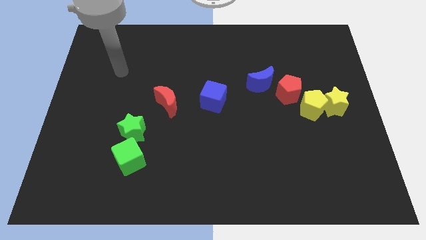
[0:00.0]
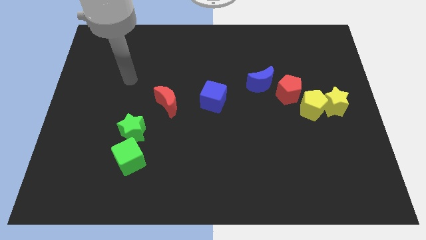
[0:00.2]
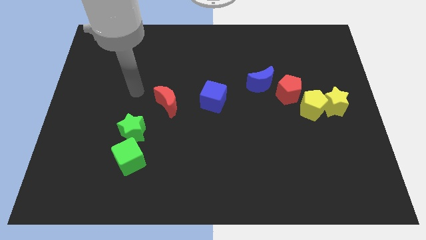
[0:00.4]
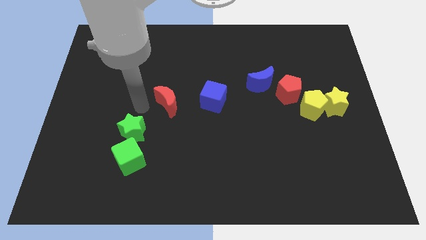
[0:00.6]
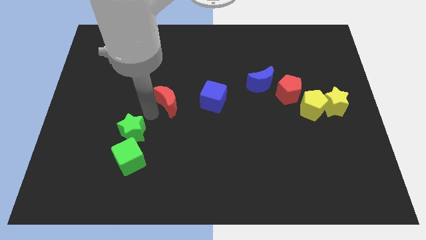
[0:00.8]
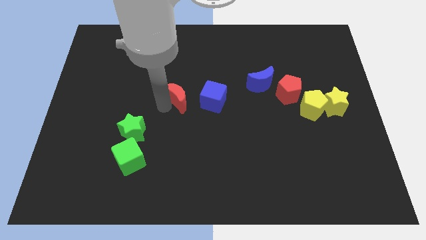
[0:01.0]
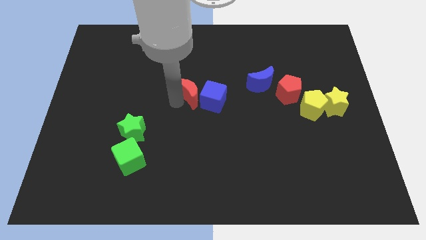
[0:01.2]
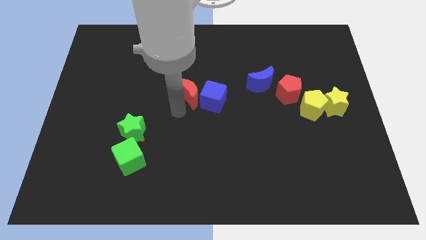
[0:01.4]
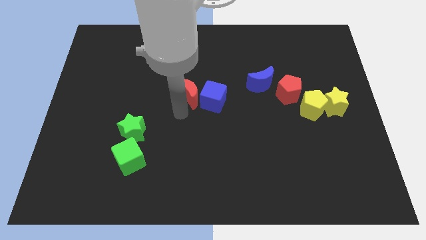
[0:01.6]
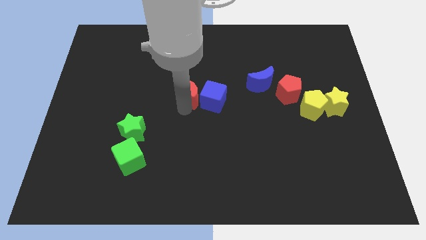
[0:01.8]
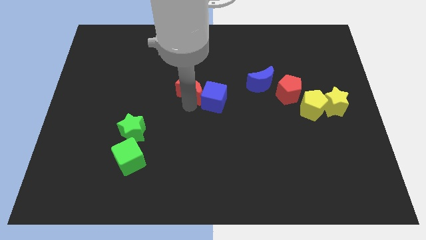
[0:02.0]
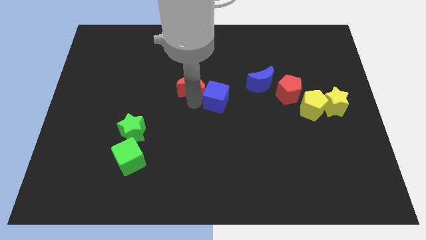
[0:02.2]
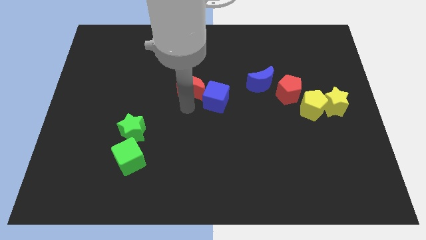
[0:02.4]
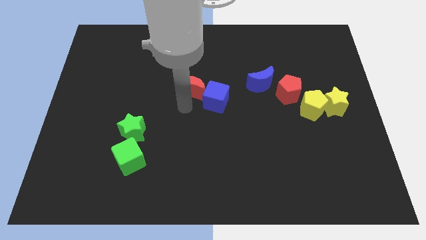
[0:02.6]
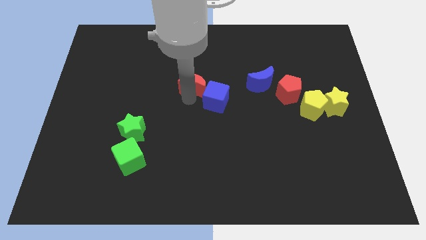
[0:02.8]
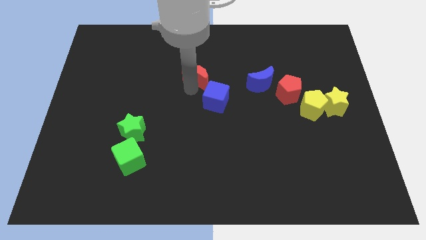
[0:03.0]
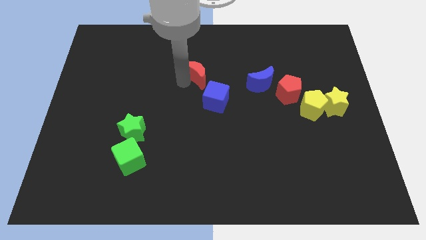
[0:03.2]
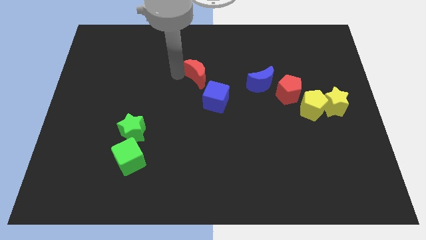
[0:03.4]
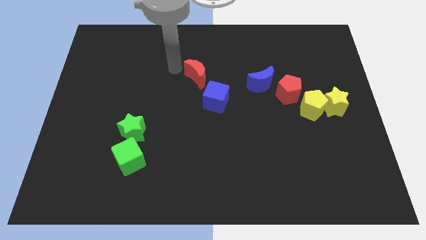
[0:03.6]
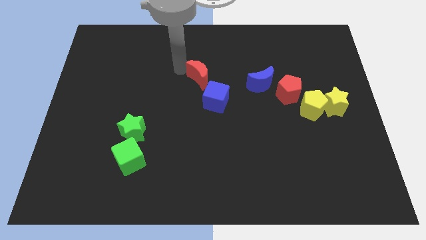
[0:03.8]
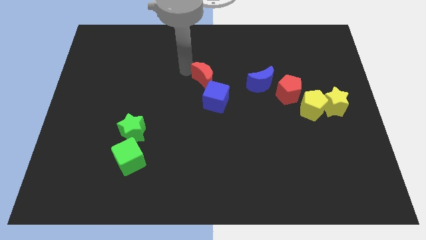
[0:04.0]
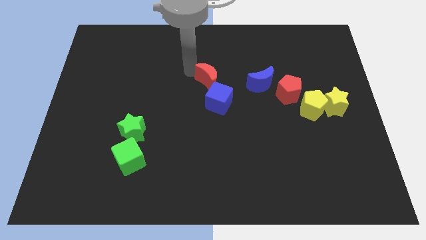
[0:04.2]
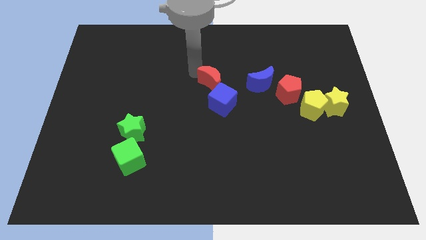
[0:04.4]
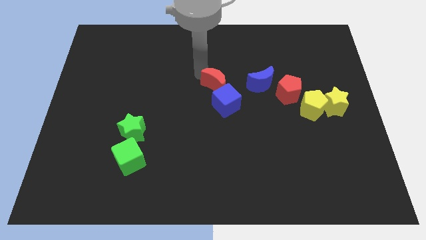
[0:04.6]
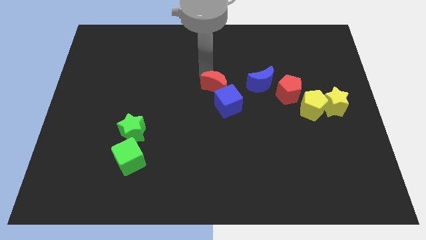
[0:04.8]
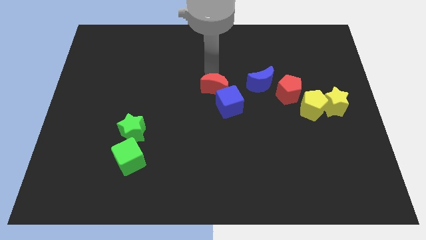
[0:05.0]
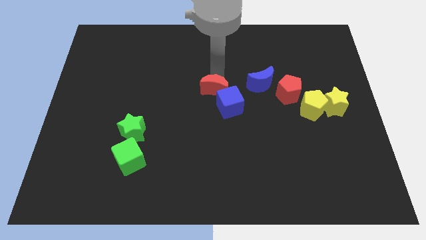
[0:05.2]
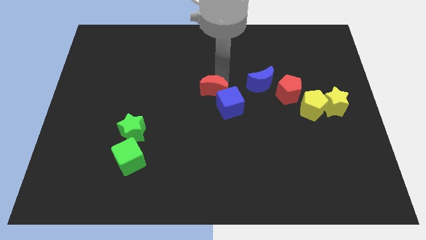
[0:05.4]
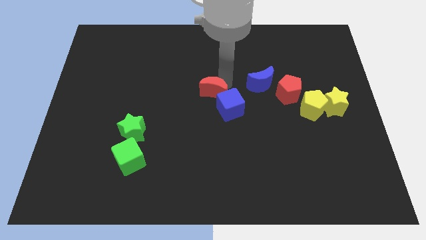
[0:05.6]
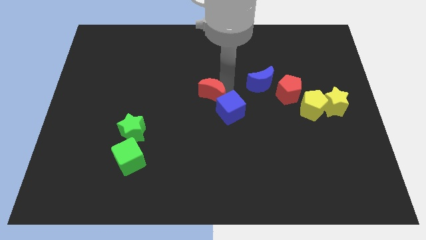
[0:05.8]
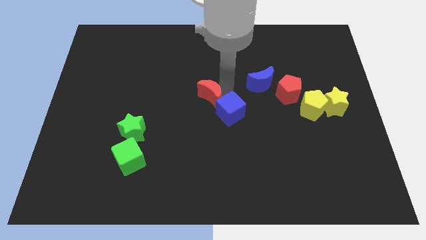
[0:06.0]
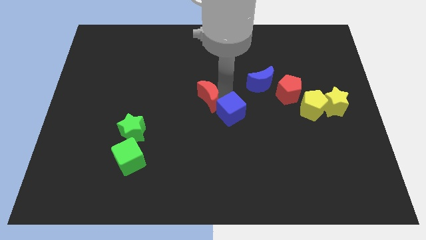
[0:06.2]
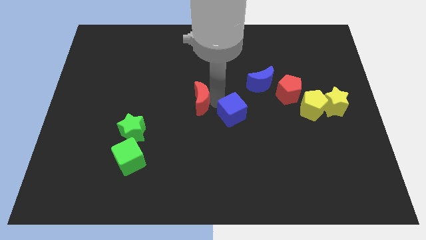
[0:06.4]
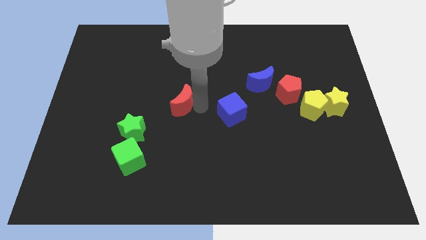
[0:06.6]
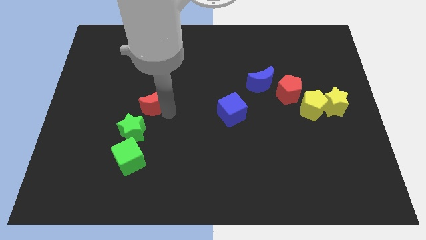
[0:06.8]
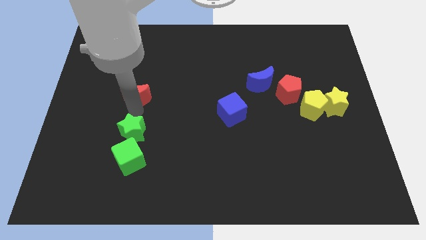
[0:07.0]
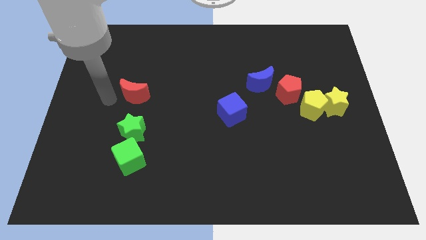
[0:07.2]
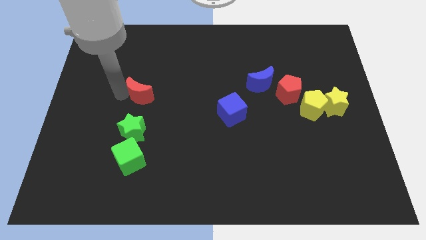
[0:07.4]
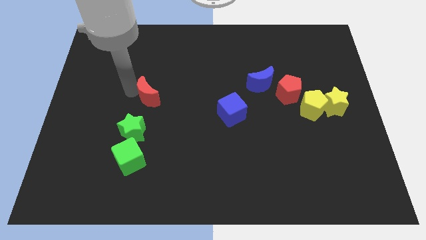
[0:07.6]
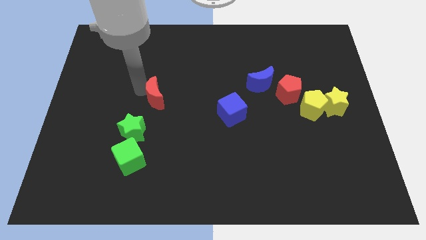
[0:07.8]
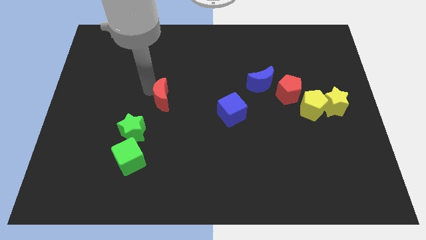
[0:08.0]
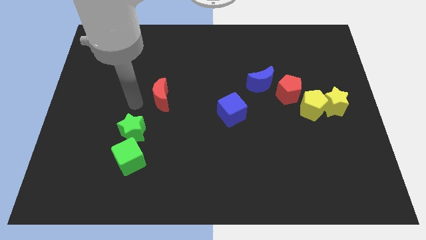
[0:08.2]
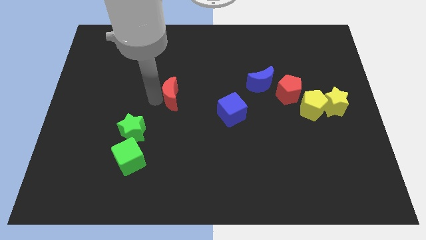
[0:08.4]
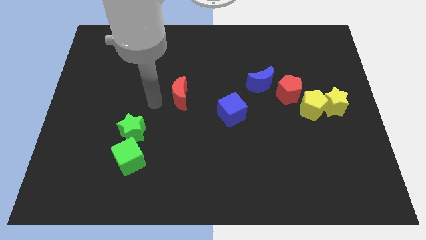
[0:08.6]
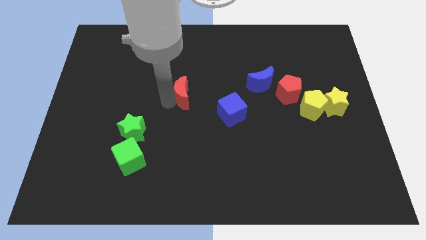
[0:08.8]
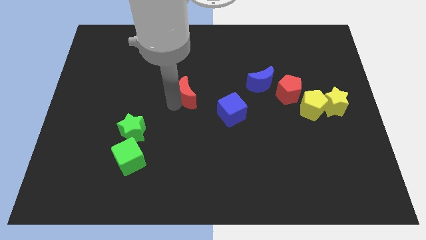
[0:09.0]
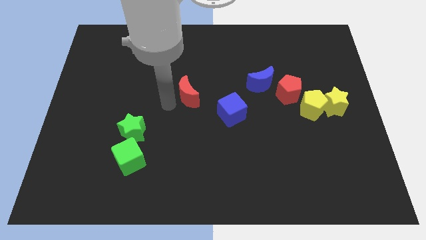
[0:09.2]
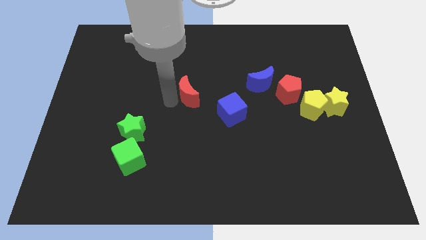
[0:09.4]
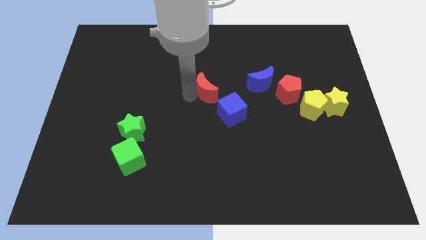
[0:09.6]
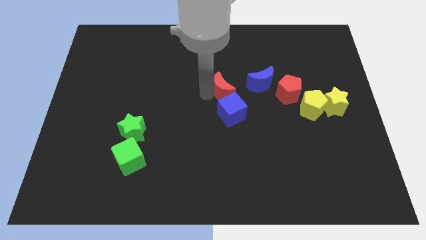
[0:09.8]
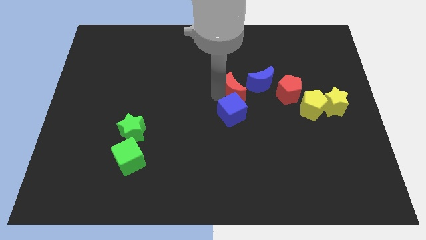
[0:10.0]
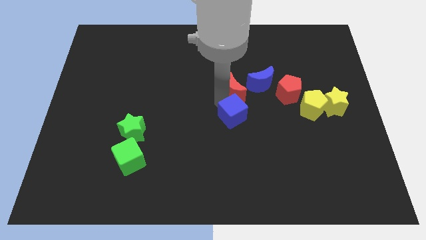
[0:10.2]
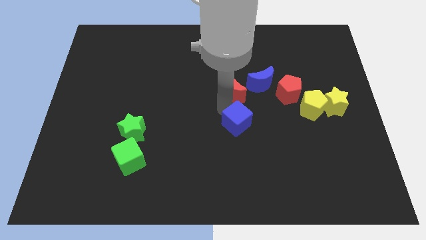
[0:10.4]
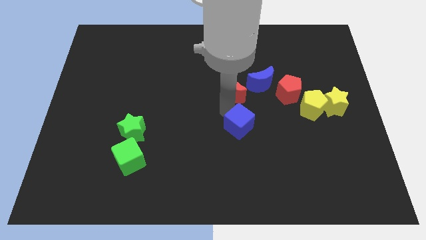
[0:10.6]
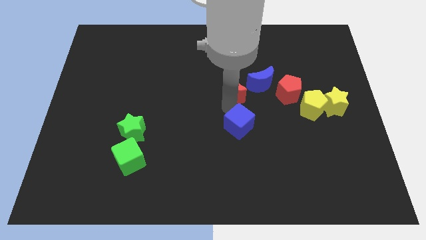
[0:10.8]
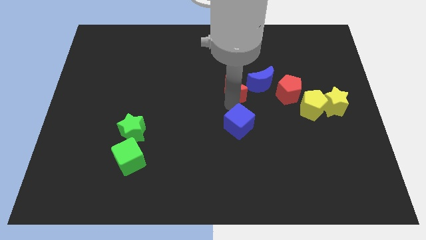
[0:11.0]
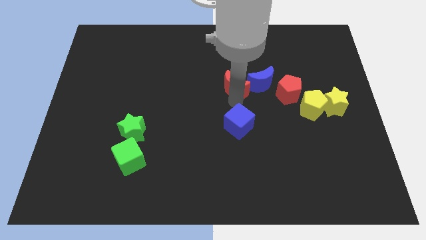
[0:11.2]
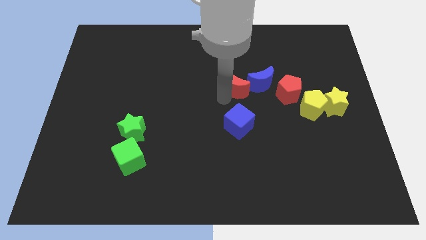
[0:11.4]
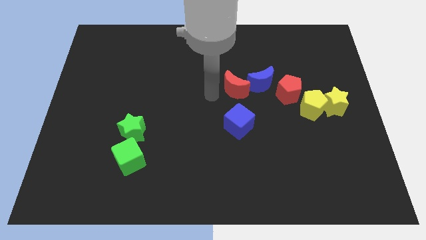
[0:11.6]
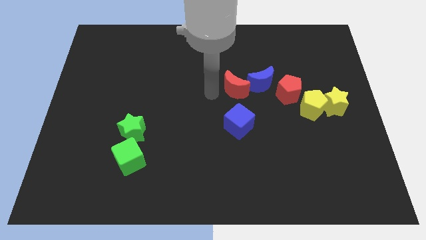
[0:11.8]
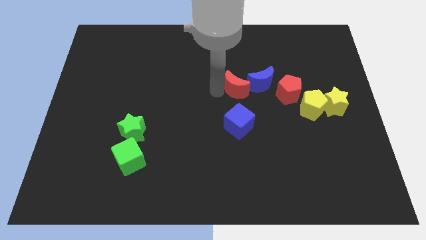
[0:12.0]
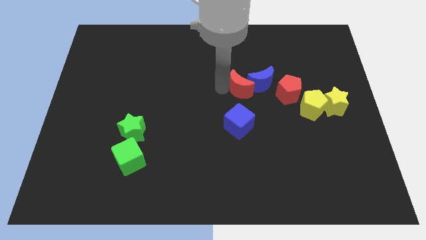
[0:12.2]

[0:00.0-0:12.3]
move the red moon to the blue moon

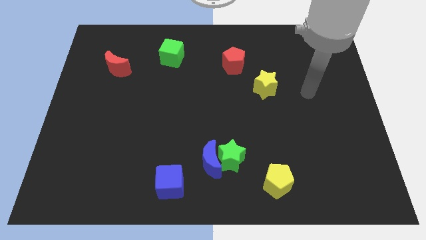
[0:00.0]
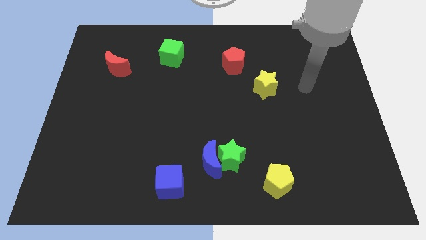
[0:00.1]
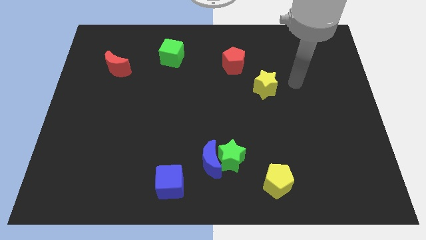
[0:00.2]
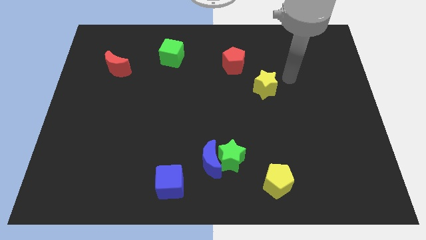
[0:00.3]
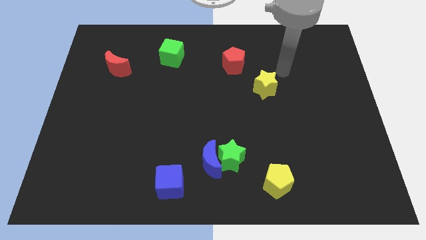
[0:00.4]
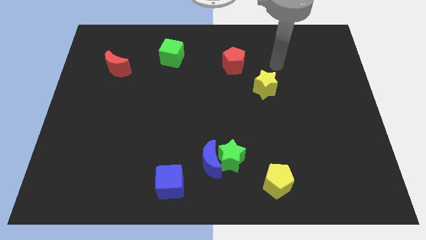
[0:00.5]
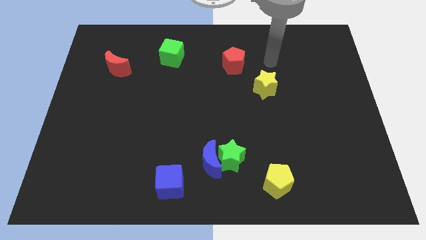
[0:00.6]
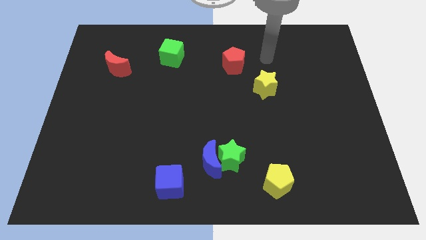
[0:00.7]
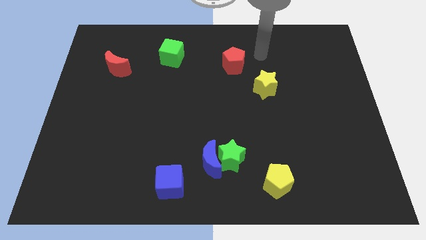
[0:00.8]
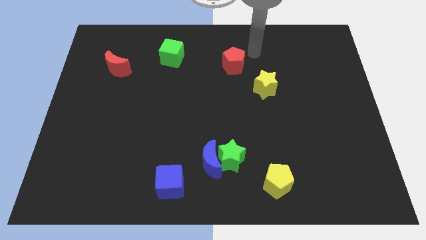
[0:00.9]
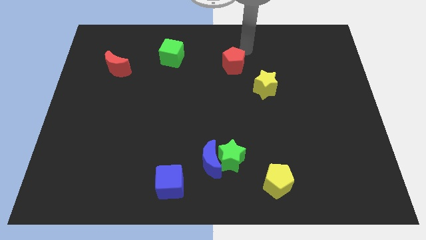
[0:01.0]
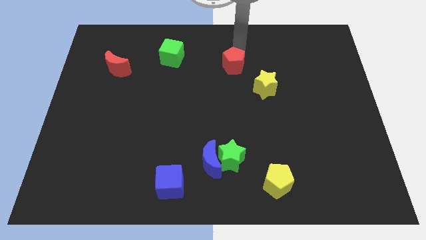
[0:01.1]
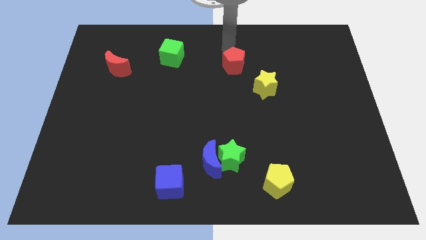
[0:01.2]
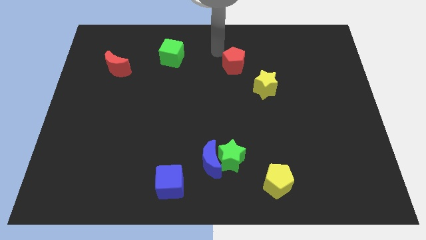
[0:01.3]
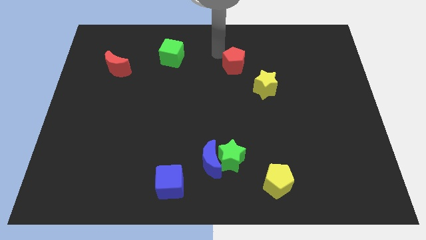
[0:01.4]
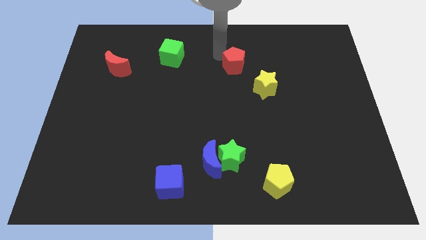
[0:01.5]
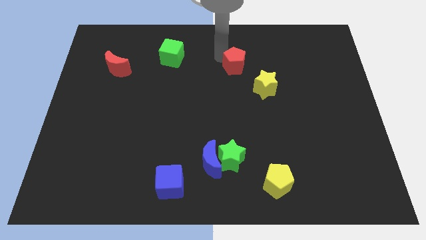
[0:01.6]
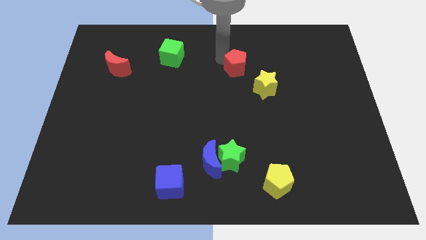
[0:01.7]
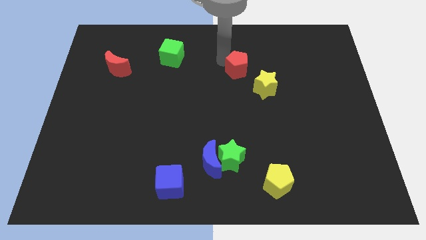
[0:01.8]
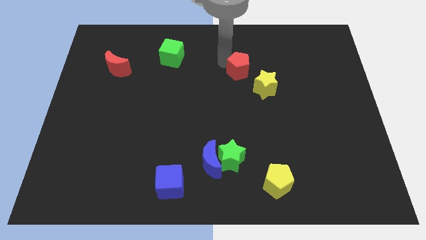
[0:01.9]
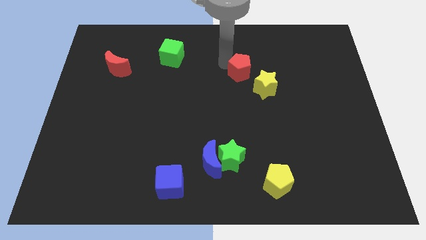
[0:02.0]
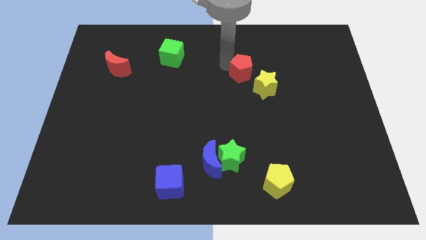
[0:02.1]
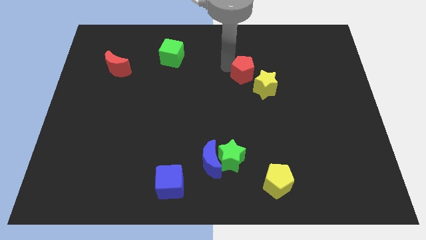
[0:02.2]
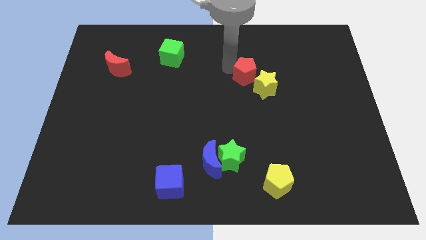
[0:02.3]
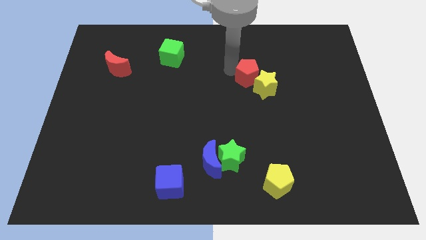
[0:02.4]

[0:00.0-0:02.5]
slide the red pentagon close to the yellow star
